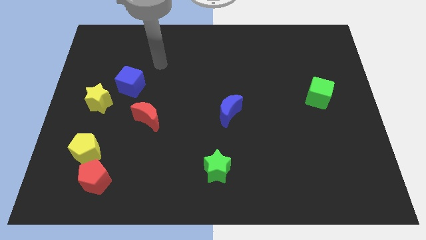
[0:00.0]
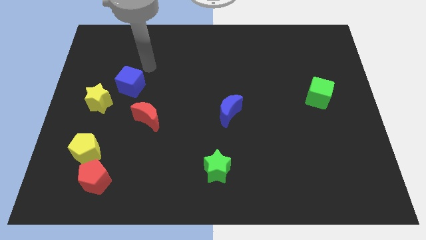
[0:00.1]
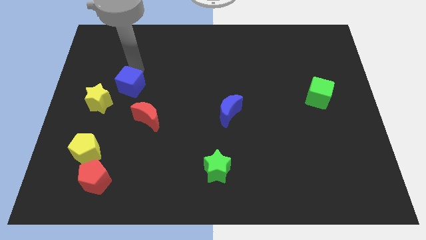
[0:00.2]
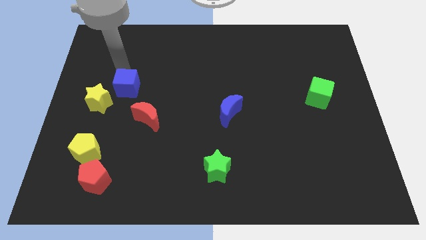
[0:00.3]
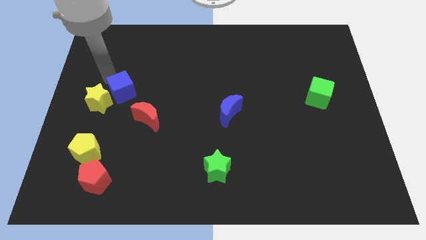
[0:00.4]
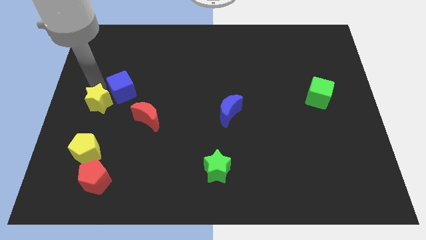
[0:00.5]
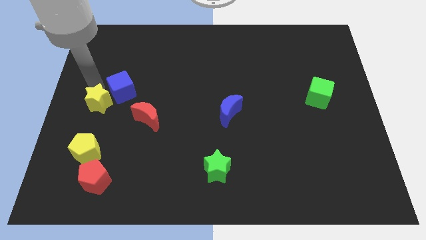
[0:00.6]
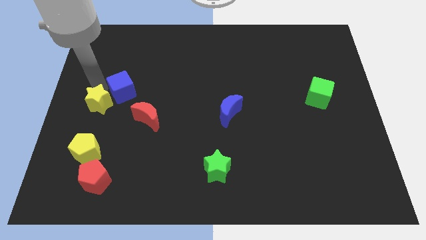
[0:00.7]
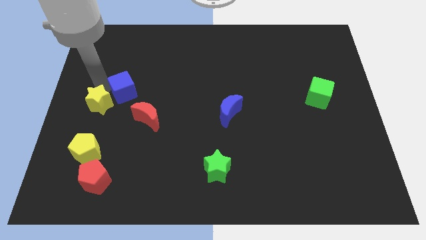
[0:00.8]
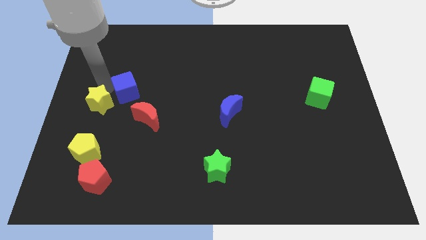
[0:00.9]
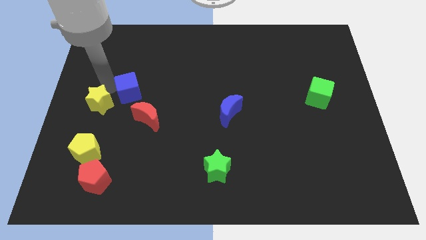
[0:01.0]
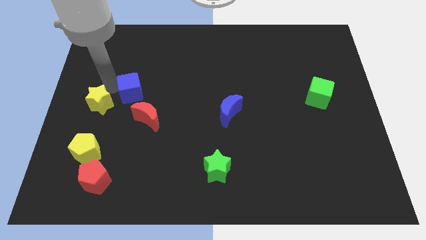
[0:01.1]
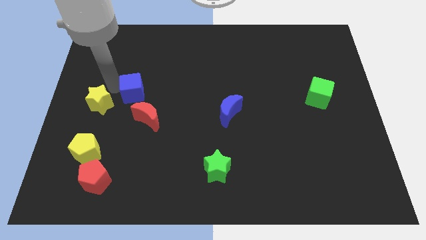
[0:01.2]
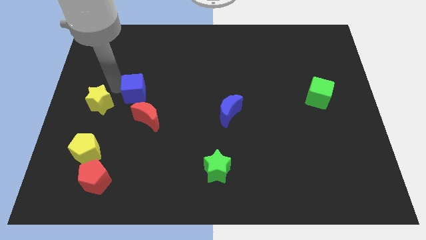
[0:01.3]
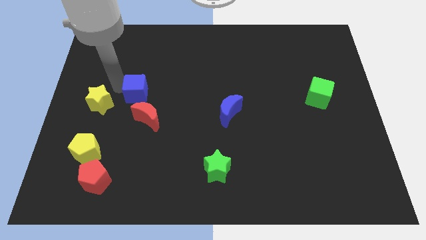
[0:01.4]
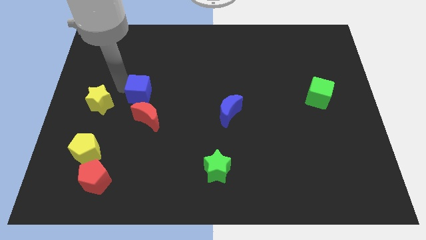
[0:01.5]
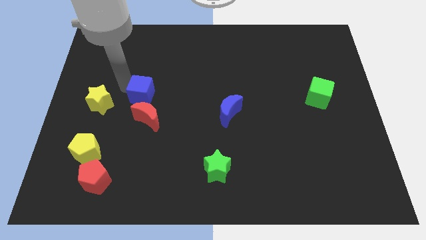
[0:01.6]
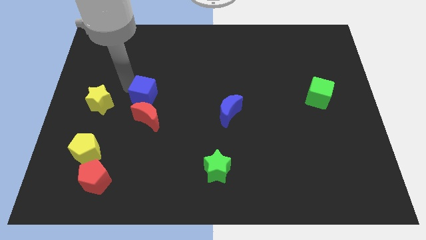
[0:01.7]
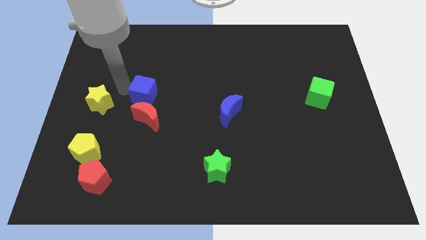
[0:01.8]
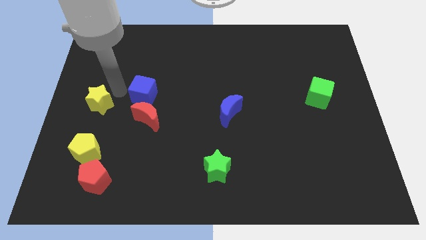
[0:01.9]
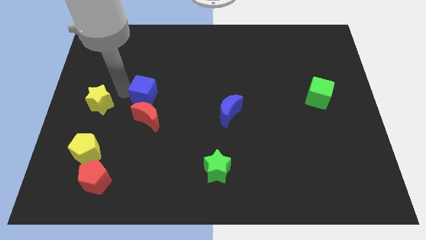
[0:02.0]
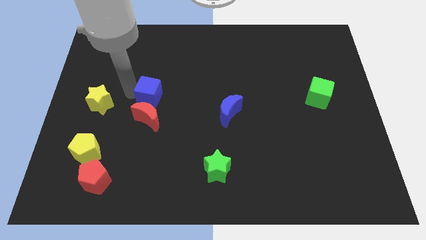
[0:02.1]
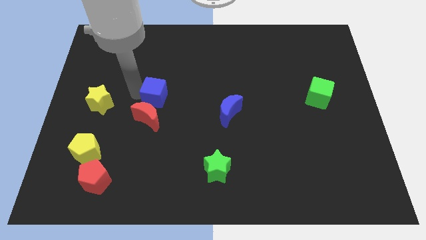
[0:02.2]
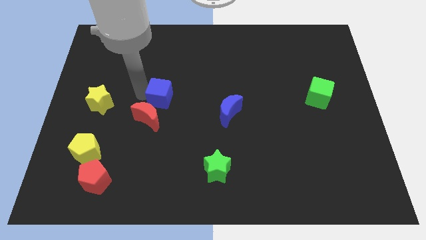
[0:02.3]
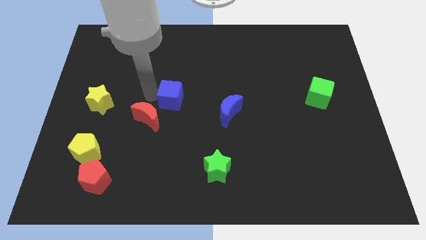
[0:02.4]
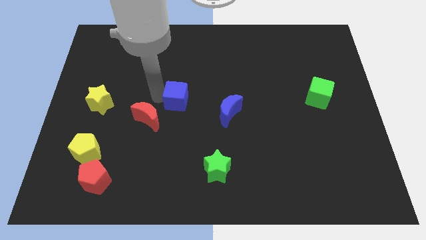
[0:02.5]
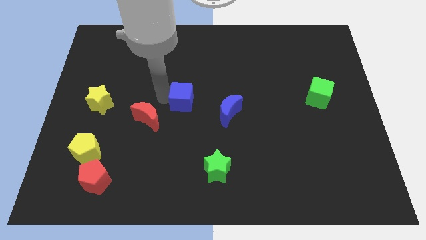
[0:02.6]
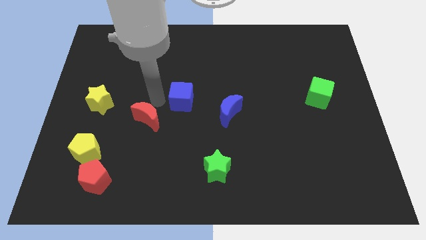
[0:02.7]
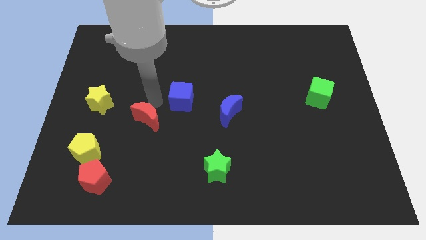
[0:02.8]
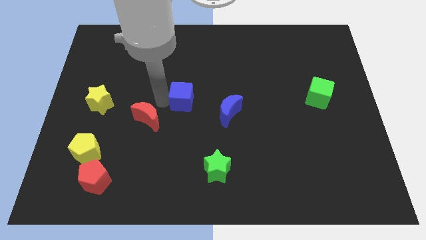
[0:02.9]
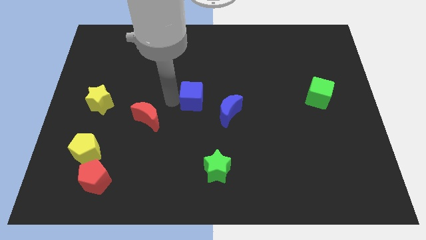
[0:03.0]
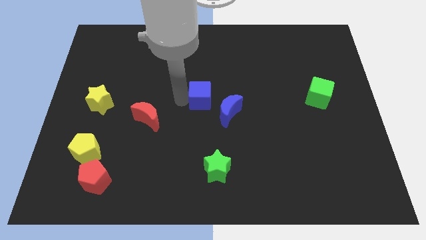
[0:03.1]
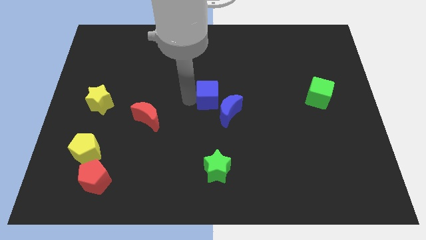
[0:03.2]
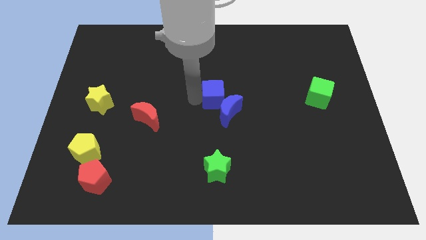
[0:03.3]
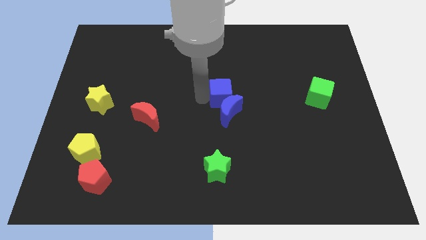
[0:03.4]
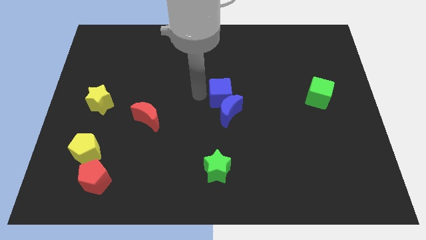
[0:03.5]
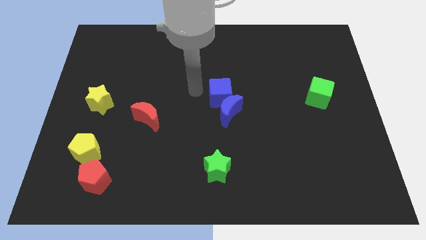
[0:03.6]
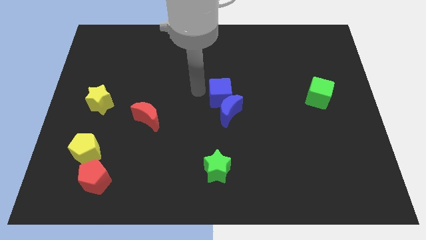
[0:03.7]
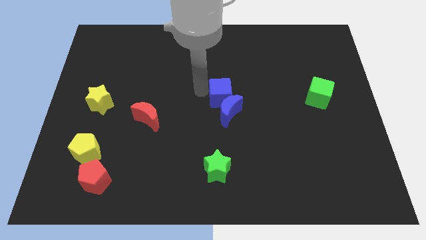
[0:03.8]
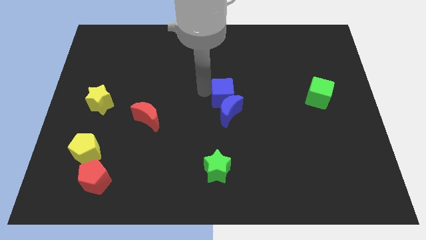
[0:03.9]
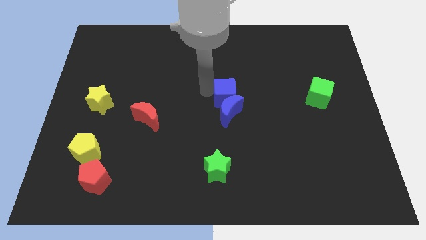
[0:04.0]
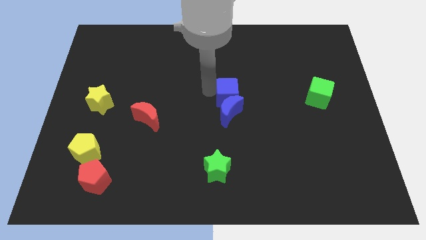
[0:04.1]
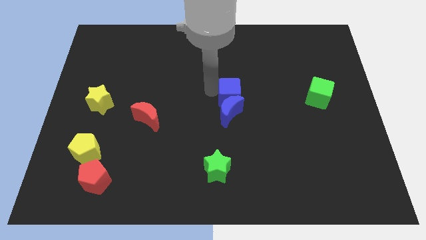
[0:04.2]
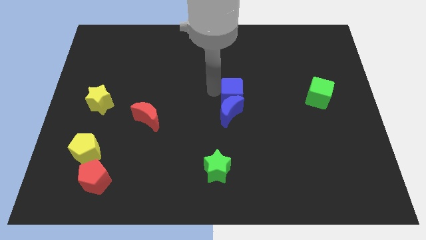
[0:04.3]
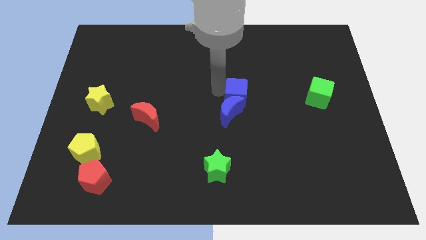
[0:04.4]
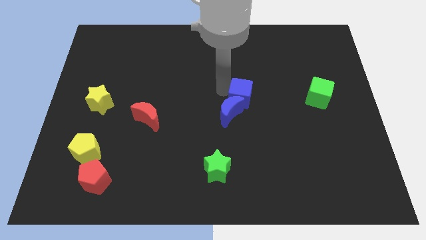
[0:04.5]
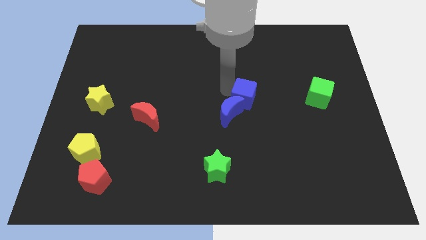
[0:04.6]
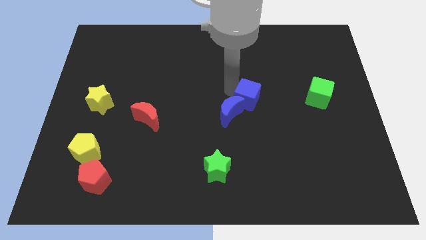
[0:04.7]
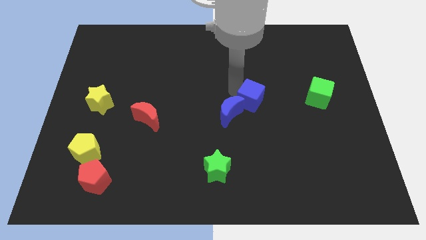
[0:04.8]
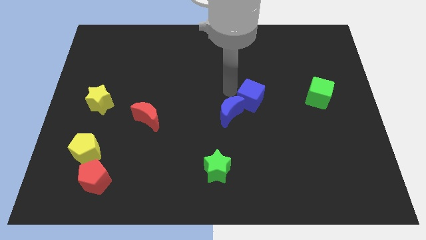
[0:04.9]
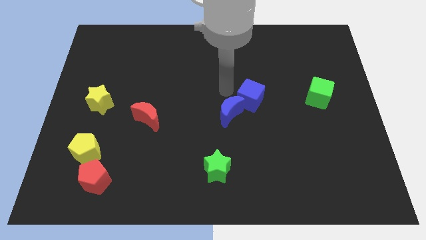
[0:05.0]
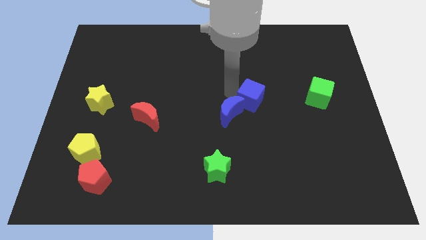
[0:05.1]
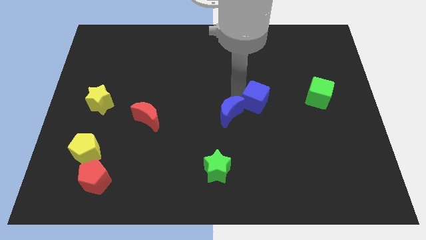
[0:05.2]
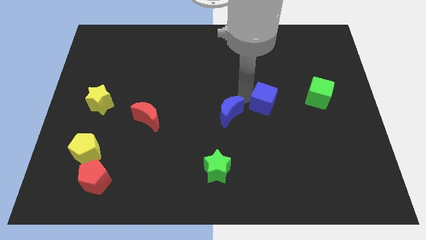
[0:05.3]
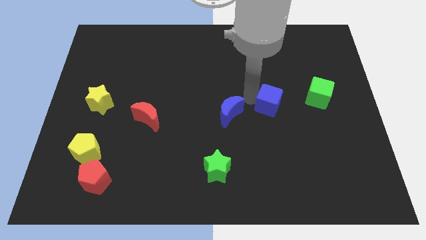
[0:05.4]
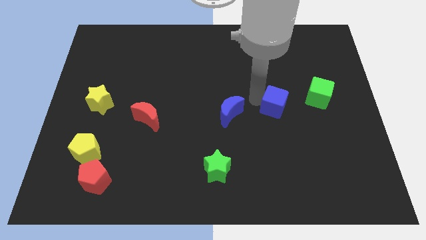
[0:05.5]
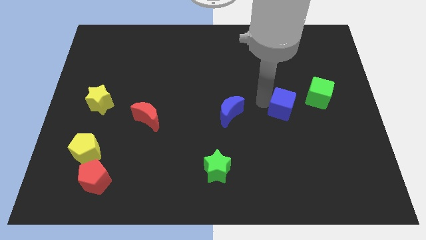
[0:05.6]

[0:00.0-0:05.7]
move the blue cube diagonally down and to the left of the green cube

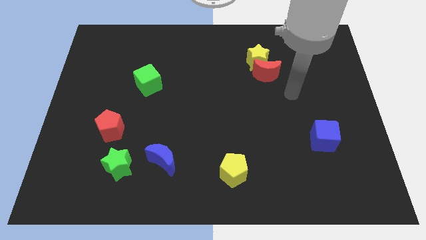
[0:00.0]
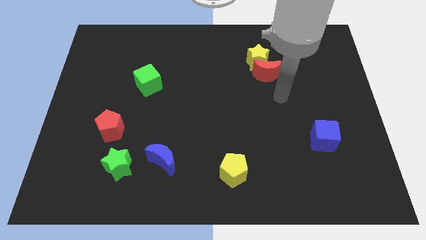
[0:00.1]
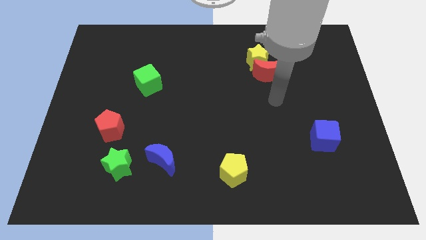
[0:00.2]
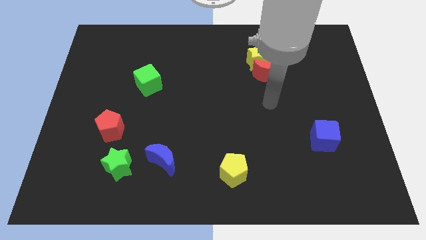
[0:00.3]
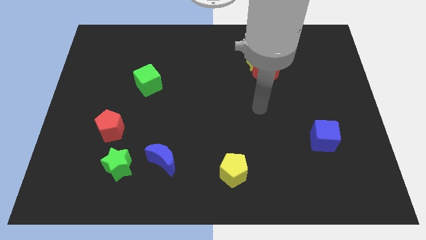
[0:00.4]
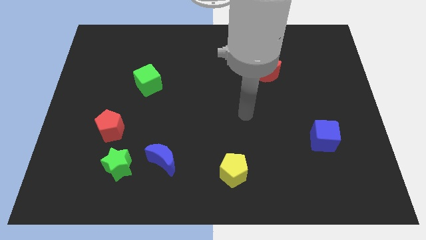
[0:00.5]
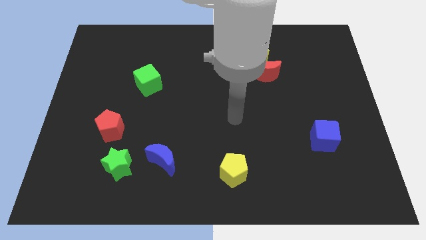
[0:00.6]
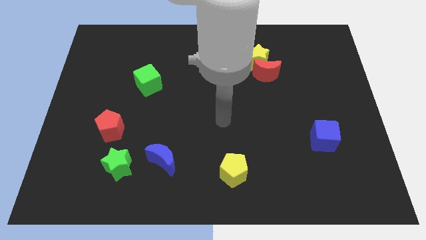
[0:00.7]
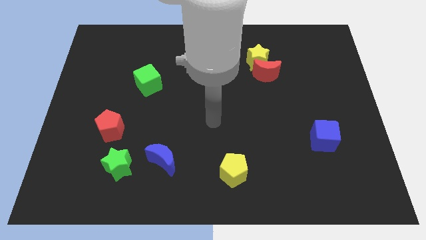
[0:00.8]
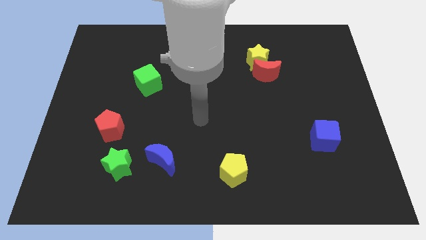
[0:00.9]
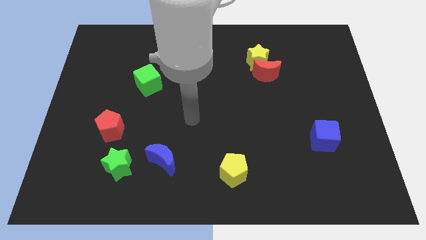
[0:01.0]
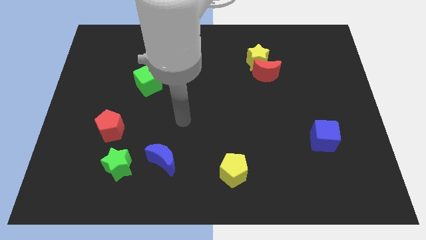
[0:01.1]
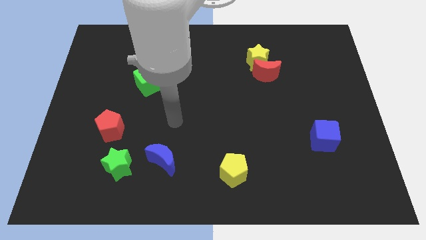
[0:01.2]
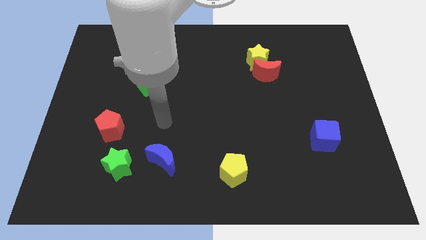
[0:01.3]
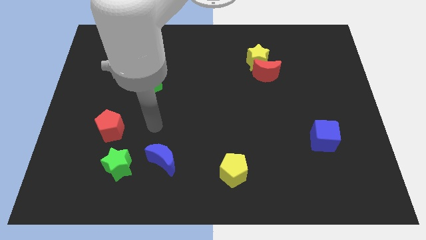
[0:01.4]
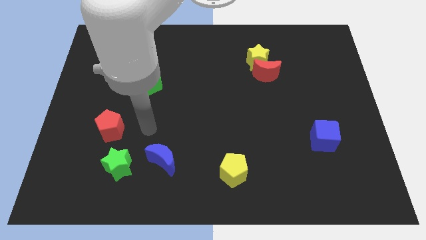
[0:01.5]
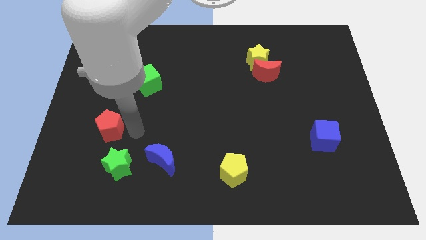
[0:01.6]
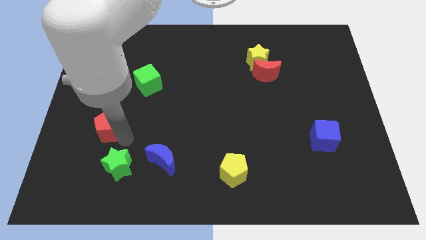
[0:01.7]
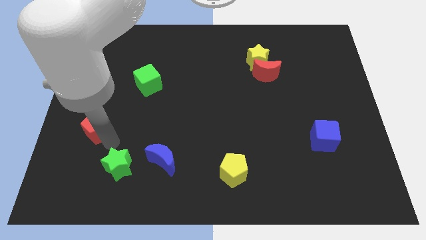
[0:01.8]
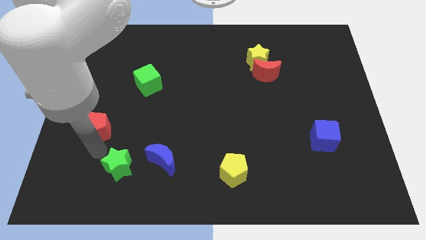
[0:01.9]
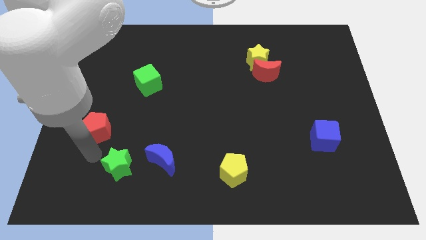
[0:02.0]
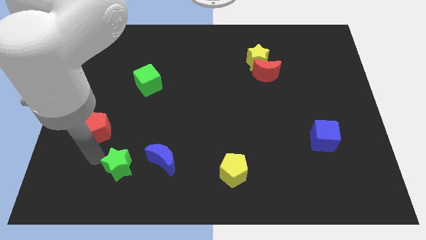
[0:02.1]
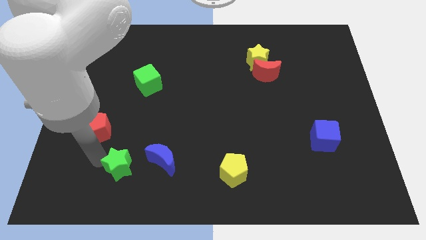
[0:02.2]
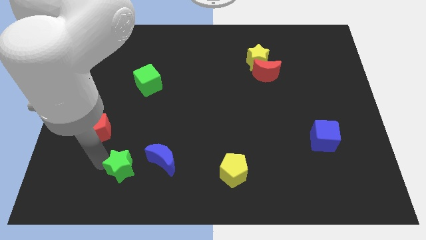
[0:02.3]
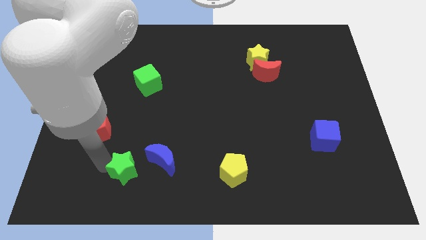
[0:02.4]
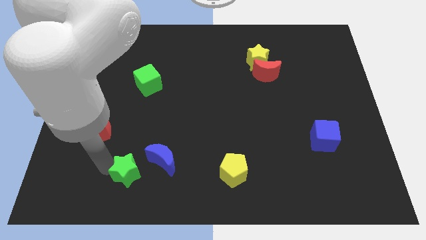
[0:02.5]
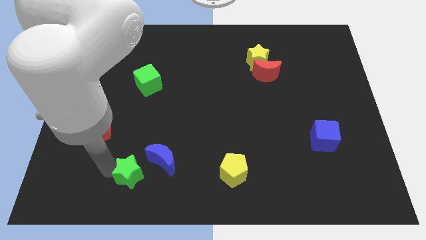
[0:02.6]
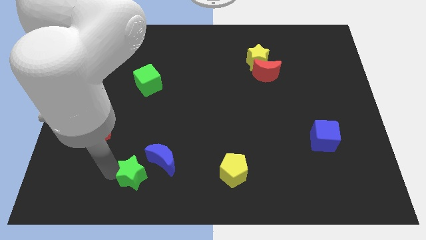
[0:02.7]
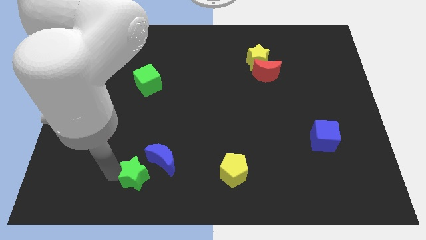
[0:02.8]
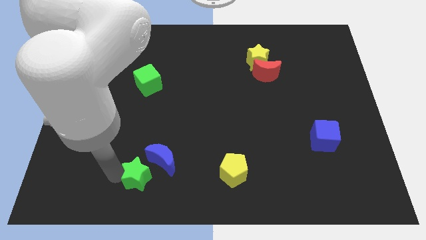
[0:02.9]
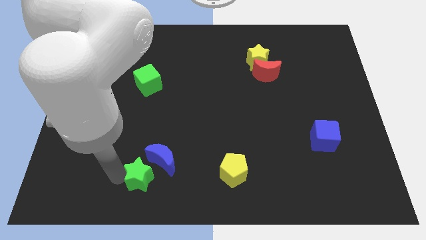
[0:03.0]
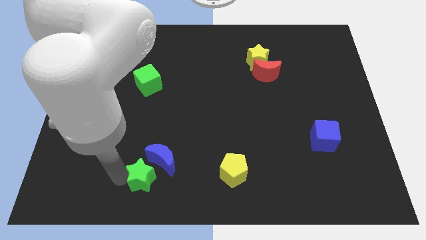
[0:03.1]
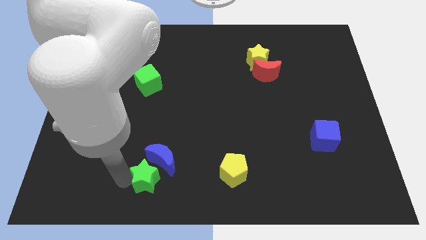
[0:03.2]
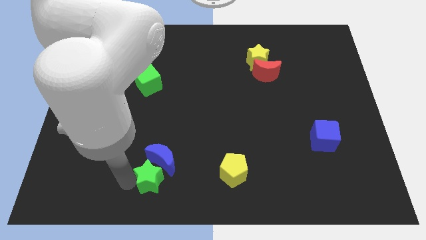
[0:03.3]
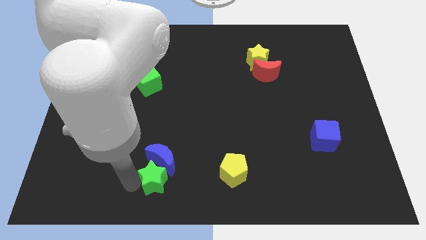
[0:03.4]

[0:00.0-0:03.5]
move the green star to the bottom right side of the blue moon
